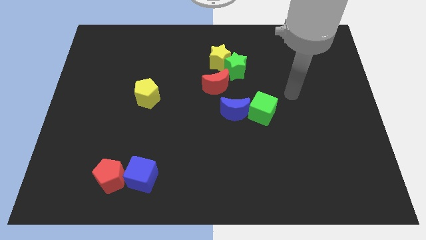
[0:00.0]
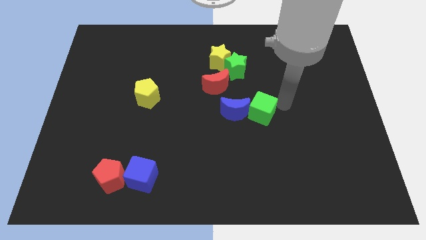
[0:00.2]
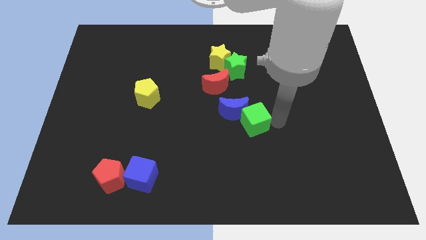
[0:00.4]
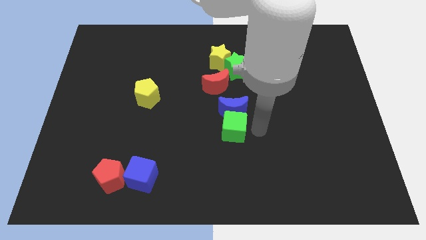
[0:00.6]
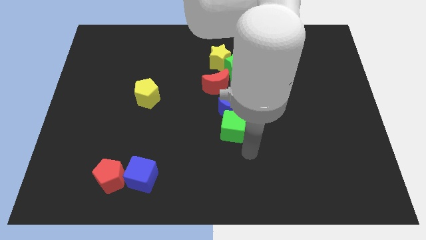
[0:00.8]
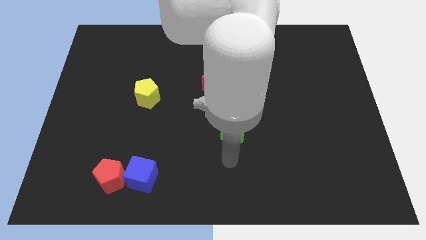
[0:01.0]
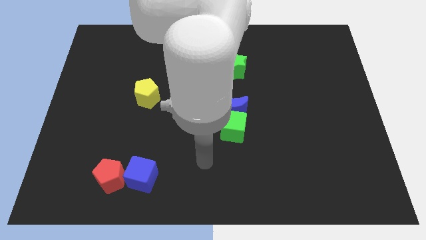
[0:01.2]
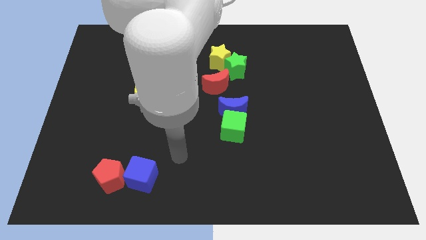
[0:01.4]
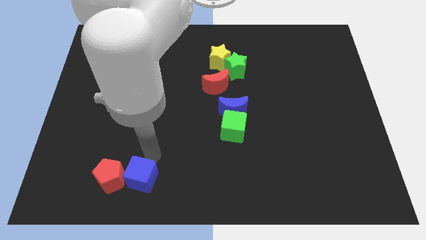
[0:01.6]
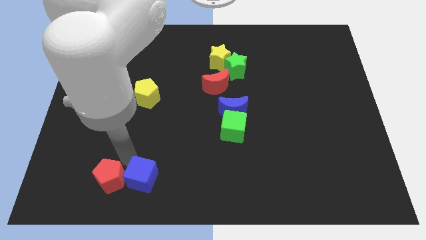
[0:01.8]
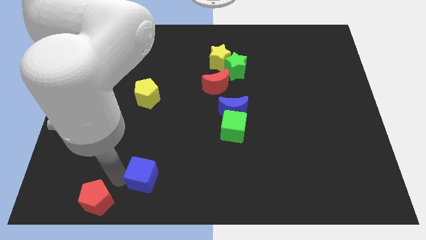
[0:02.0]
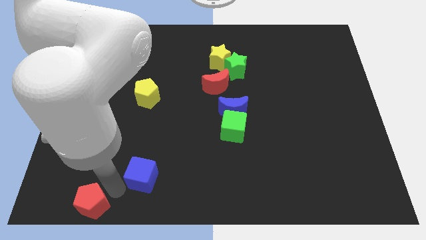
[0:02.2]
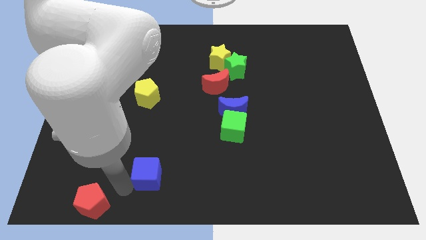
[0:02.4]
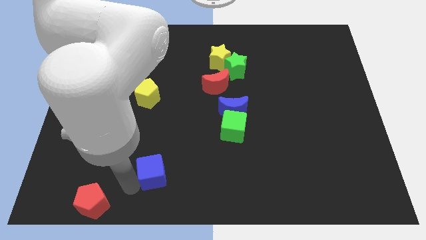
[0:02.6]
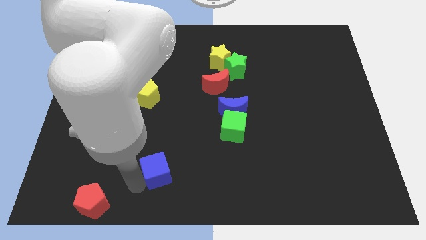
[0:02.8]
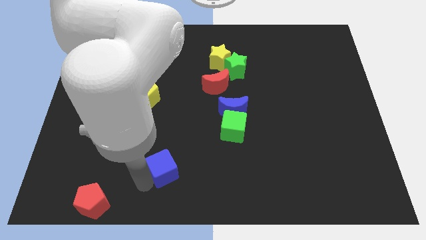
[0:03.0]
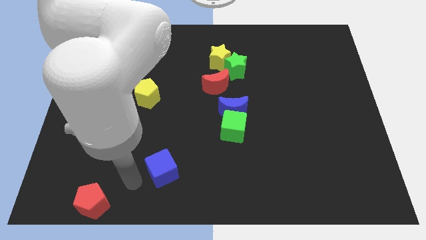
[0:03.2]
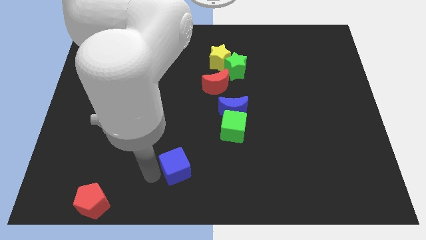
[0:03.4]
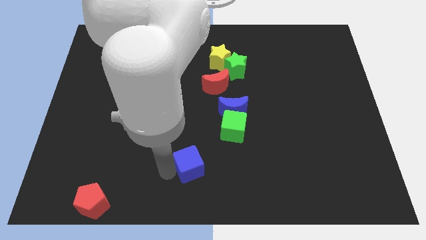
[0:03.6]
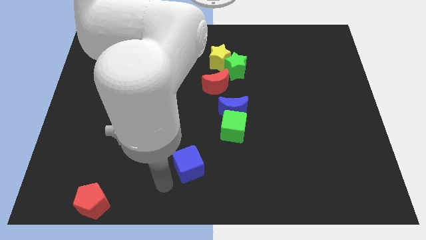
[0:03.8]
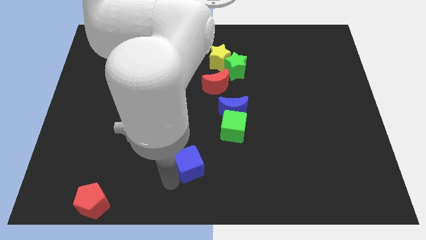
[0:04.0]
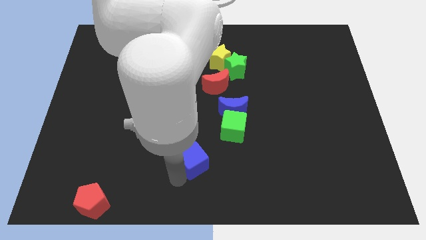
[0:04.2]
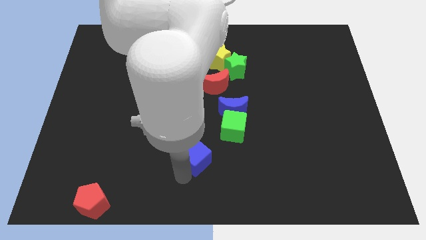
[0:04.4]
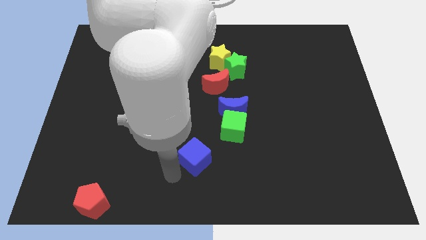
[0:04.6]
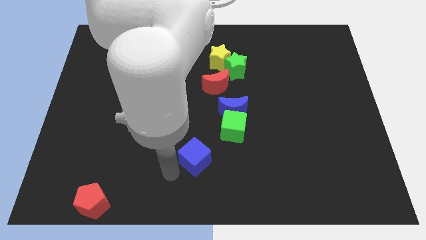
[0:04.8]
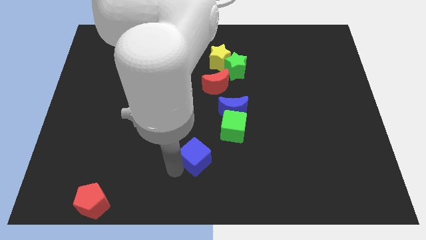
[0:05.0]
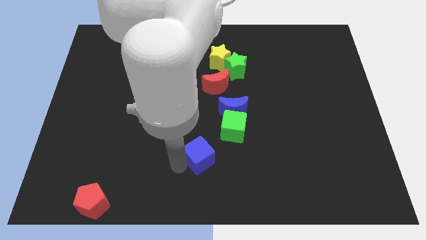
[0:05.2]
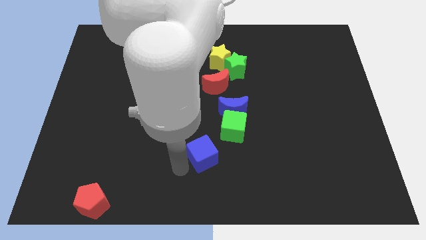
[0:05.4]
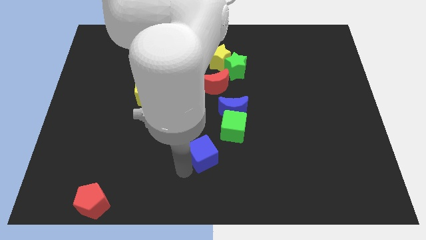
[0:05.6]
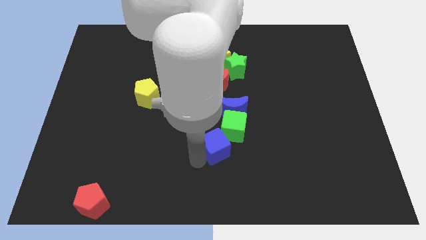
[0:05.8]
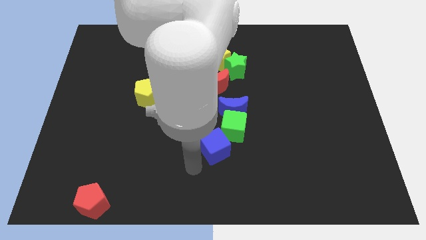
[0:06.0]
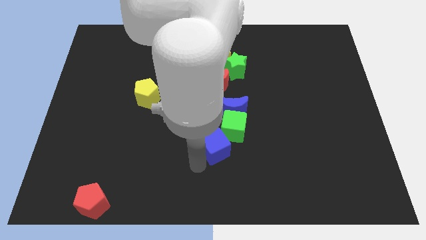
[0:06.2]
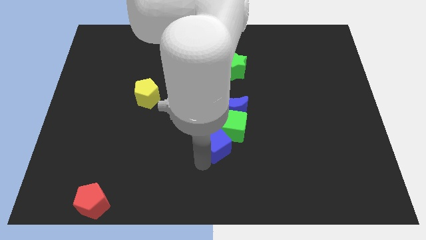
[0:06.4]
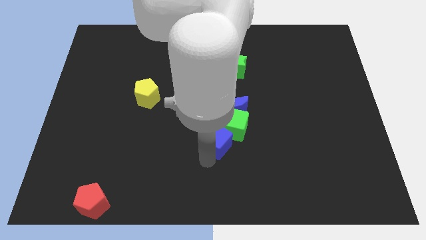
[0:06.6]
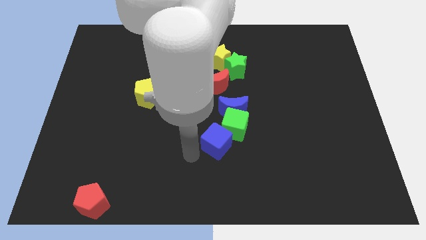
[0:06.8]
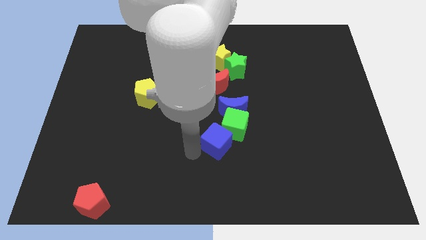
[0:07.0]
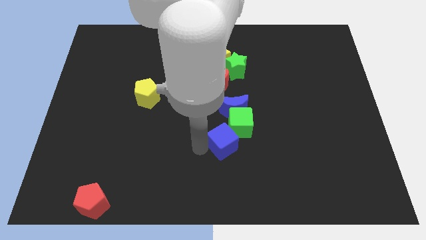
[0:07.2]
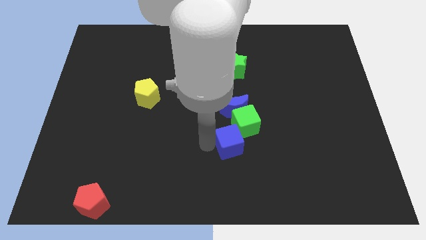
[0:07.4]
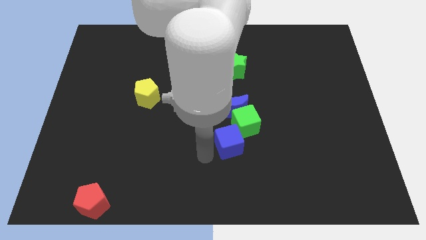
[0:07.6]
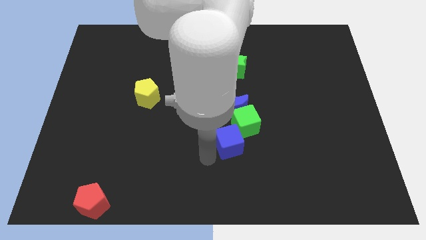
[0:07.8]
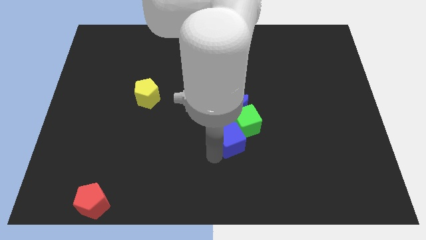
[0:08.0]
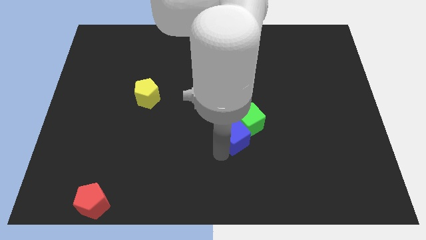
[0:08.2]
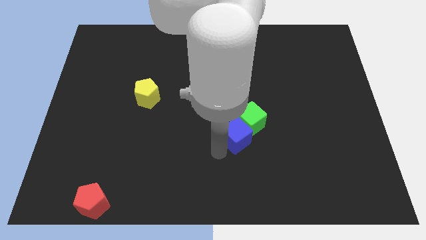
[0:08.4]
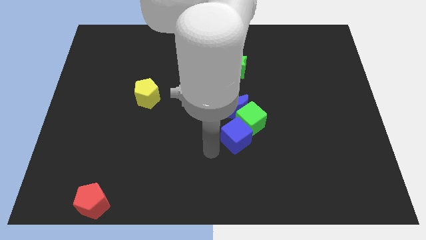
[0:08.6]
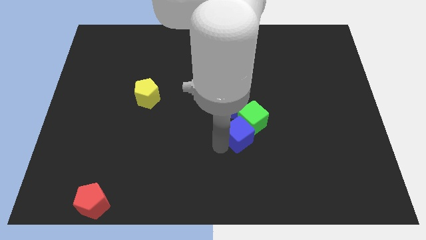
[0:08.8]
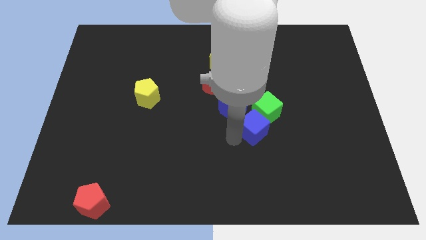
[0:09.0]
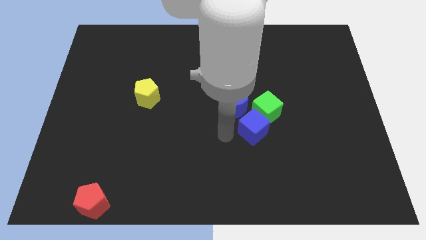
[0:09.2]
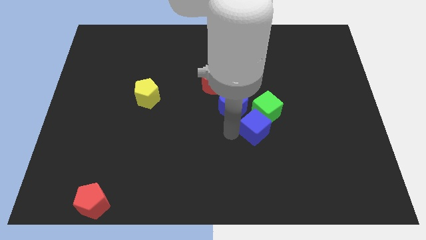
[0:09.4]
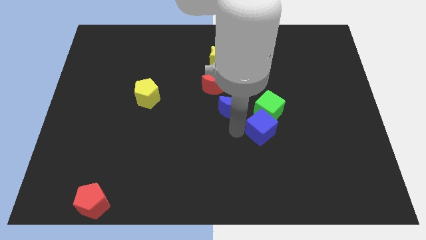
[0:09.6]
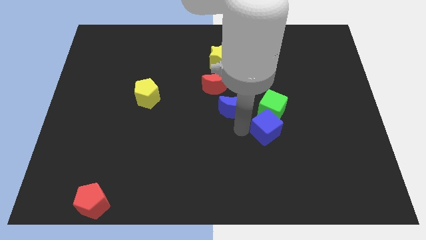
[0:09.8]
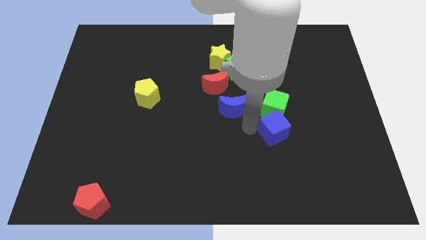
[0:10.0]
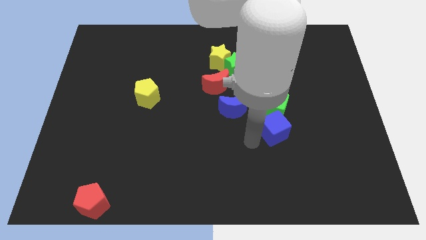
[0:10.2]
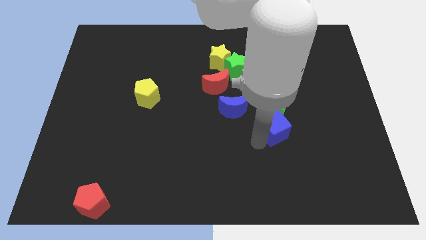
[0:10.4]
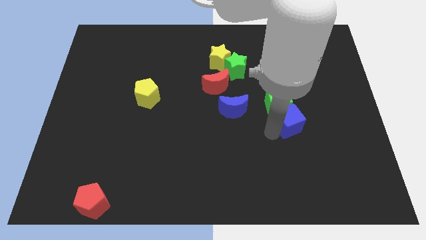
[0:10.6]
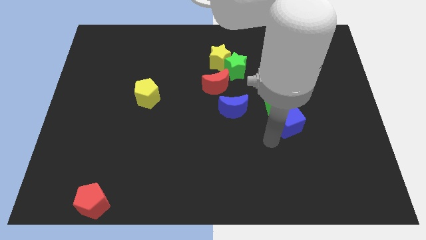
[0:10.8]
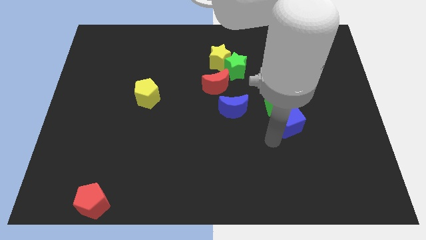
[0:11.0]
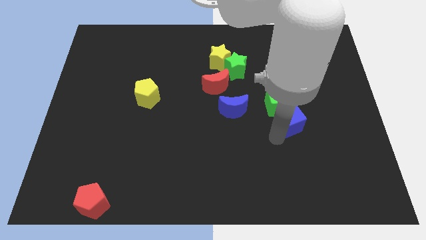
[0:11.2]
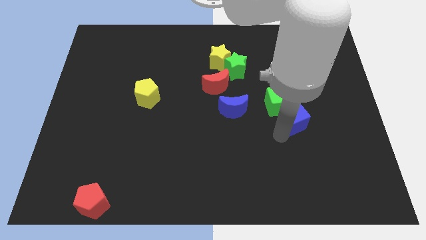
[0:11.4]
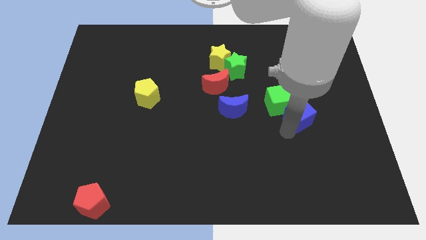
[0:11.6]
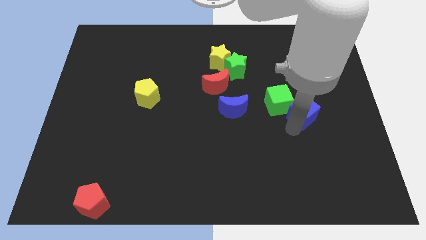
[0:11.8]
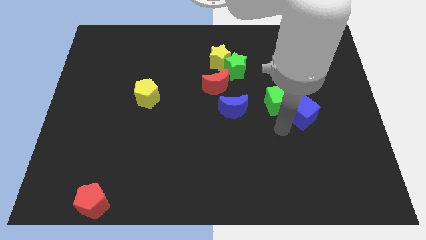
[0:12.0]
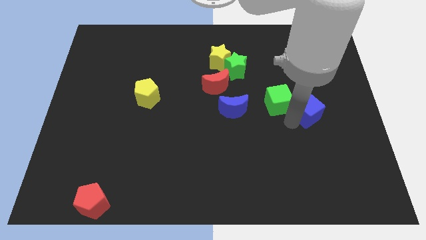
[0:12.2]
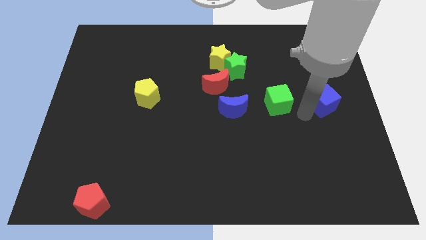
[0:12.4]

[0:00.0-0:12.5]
push the blue cube to the right side of the board

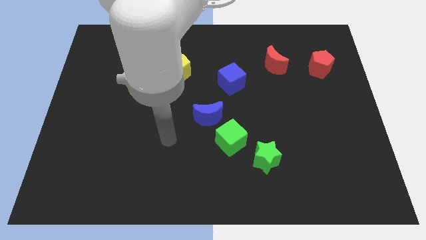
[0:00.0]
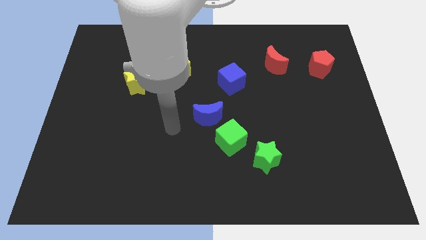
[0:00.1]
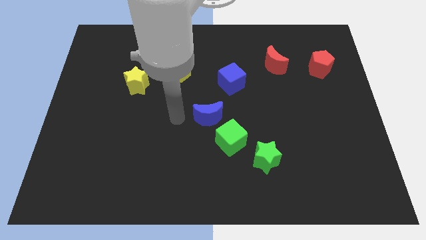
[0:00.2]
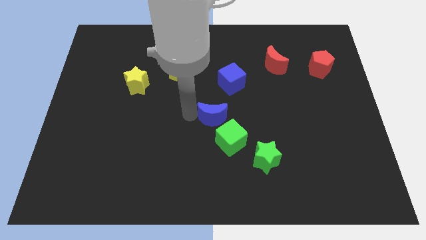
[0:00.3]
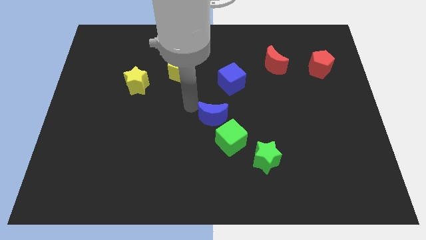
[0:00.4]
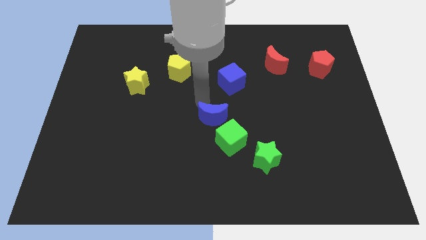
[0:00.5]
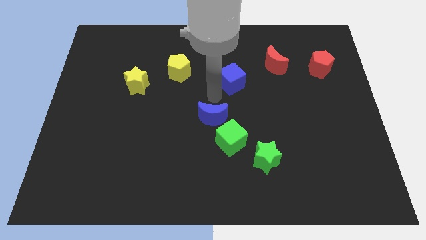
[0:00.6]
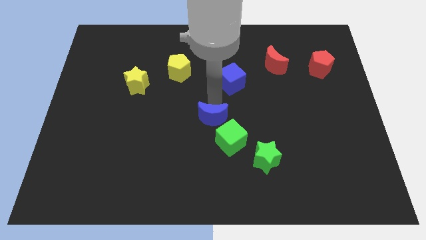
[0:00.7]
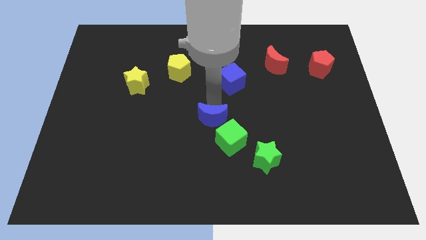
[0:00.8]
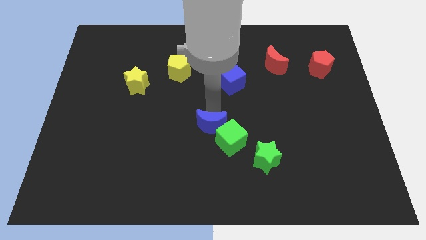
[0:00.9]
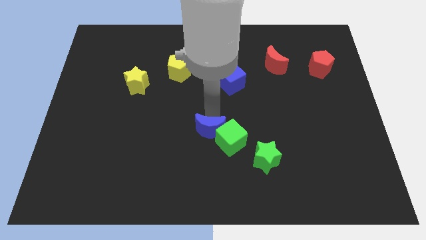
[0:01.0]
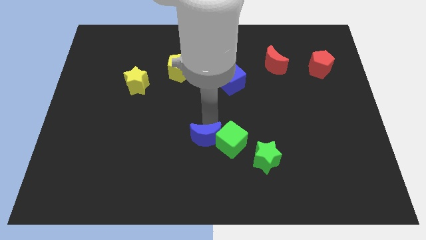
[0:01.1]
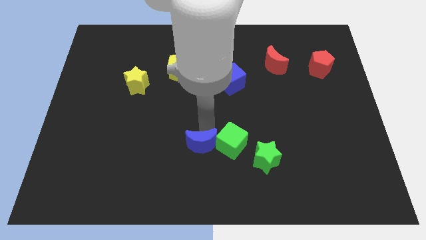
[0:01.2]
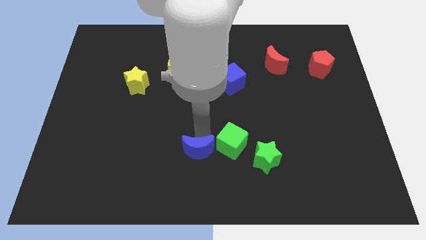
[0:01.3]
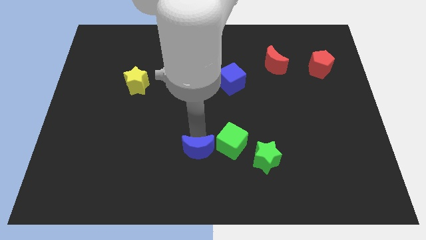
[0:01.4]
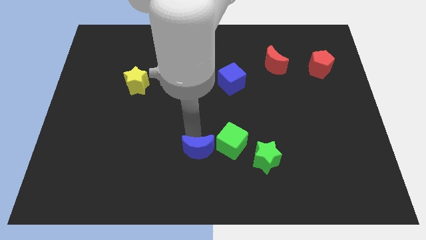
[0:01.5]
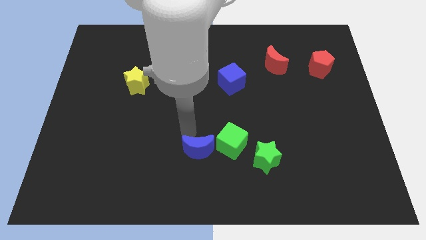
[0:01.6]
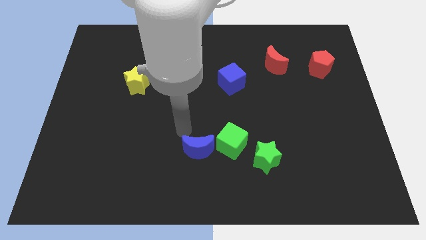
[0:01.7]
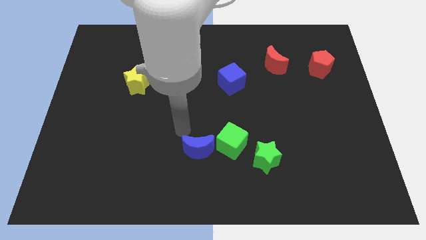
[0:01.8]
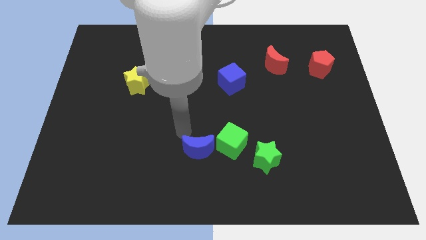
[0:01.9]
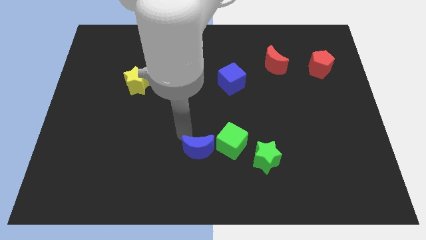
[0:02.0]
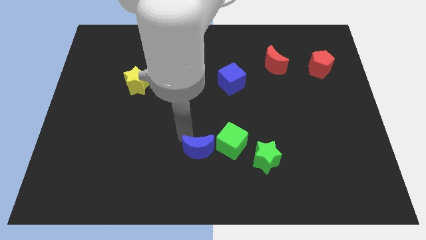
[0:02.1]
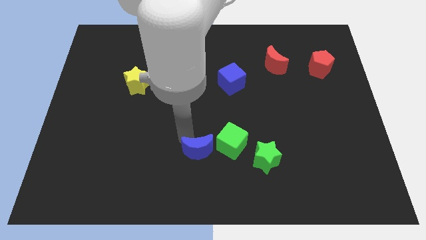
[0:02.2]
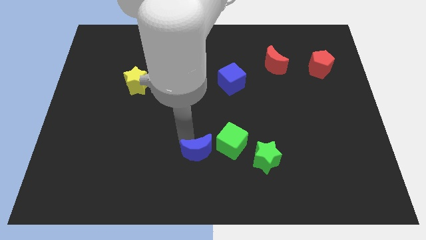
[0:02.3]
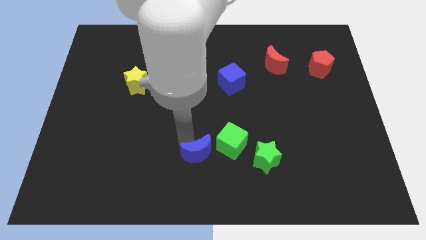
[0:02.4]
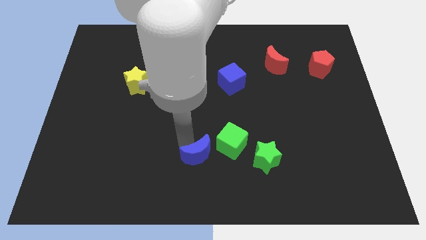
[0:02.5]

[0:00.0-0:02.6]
put the blue moon to the bottom
